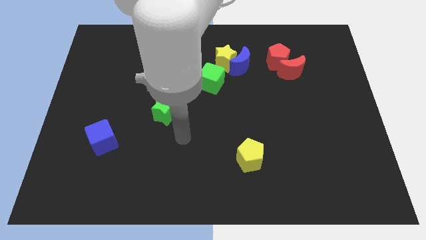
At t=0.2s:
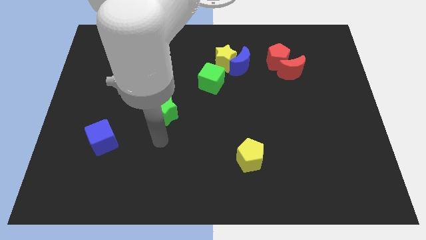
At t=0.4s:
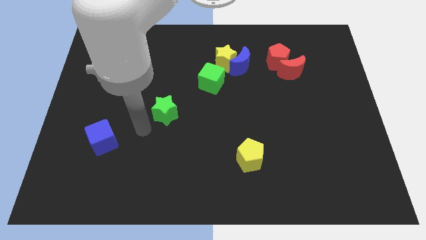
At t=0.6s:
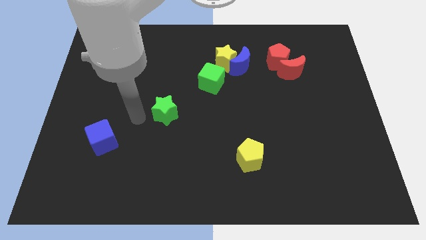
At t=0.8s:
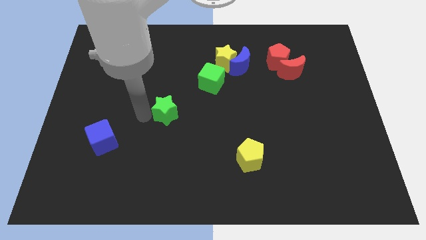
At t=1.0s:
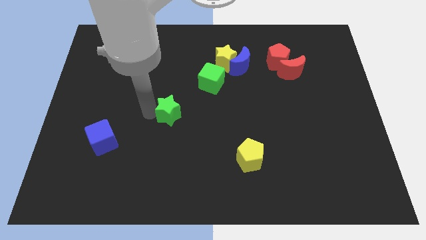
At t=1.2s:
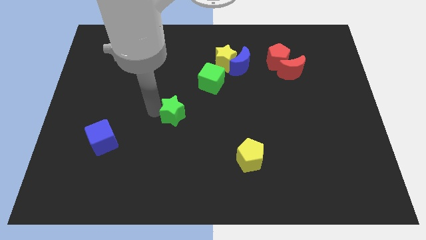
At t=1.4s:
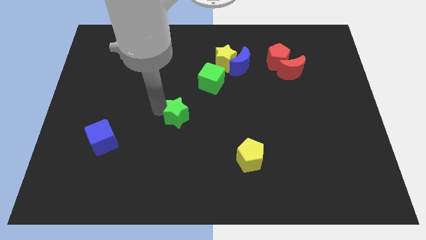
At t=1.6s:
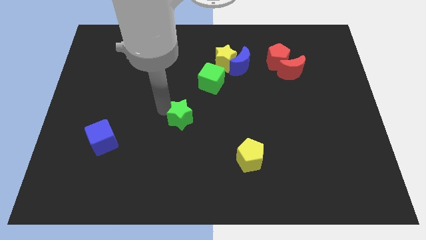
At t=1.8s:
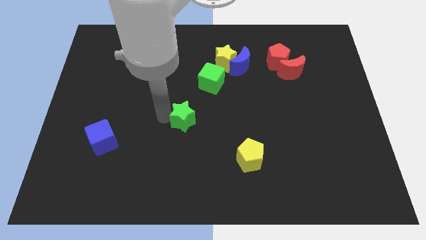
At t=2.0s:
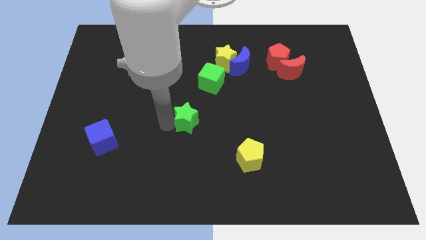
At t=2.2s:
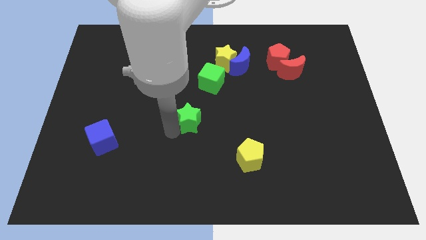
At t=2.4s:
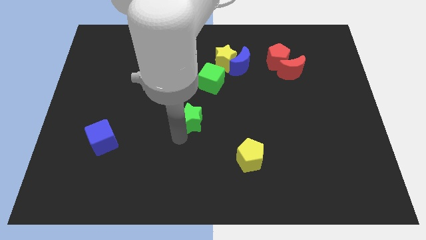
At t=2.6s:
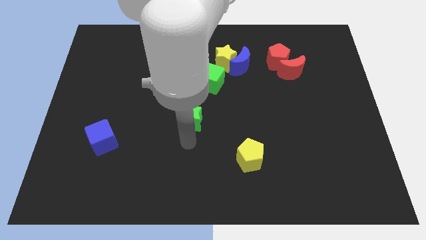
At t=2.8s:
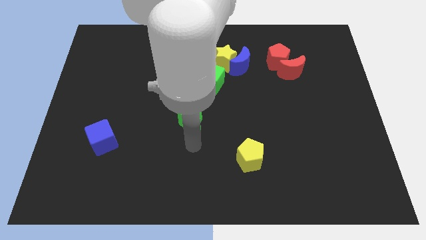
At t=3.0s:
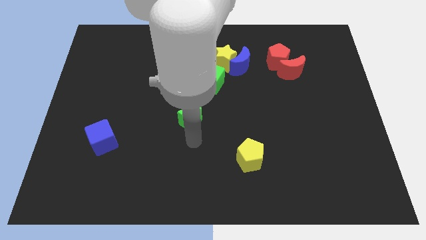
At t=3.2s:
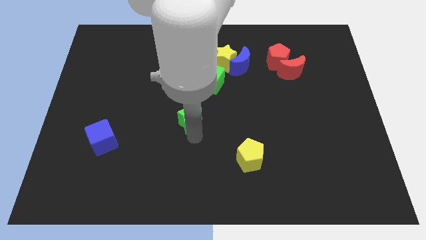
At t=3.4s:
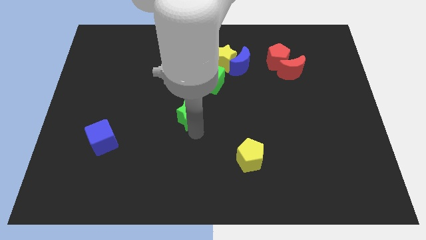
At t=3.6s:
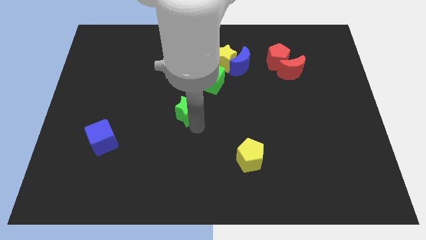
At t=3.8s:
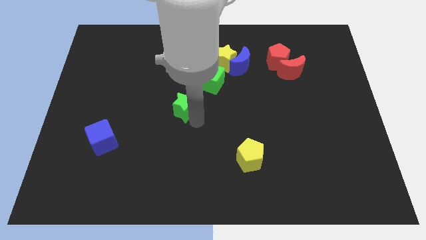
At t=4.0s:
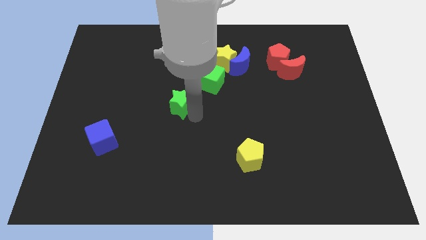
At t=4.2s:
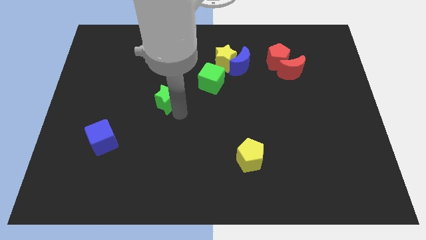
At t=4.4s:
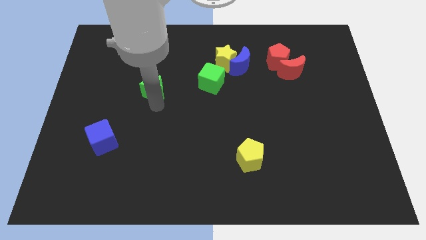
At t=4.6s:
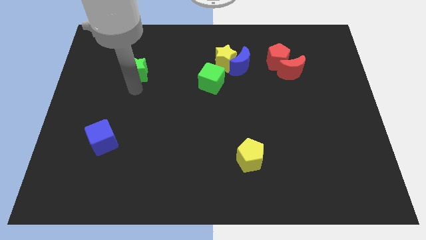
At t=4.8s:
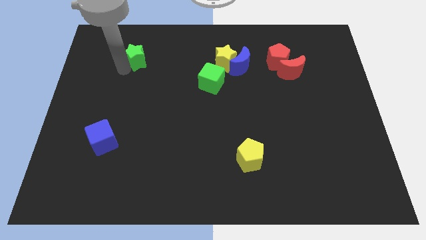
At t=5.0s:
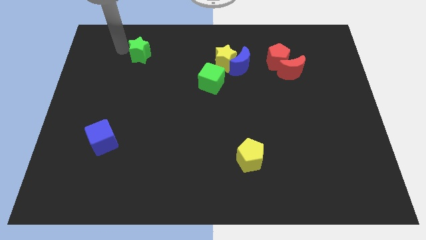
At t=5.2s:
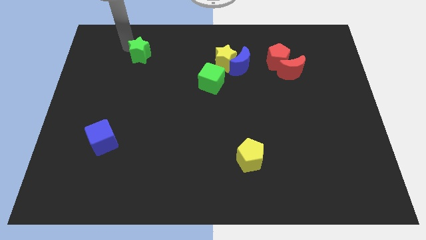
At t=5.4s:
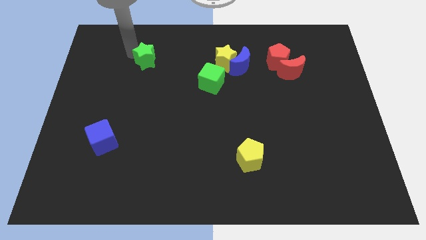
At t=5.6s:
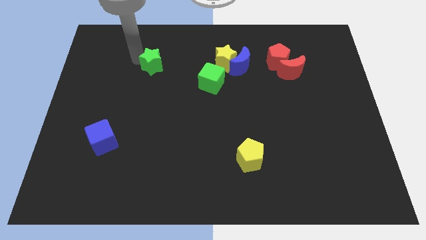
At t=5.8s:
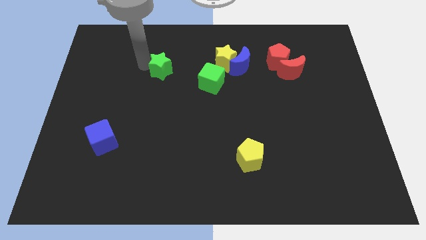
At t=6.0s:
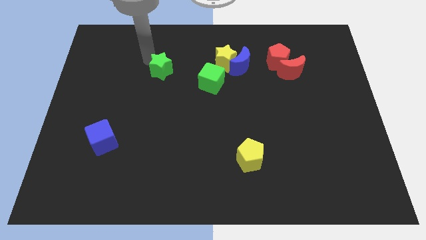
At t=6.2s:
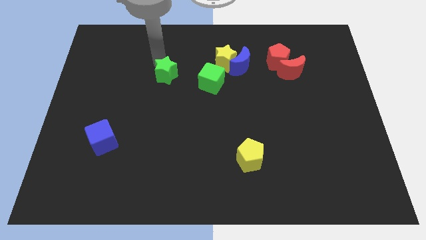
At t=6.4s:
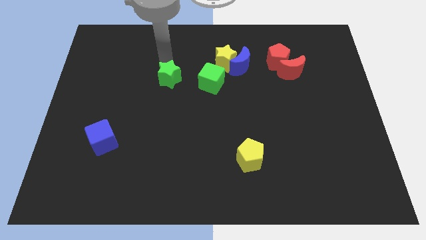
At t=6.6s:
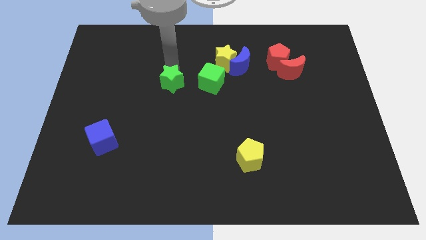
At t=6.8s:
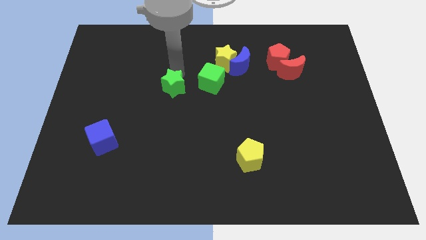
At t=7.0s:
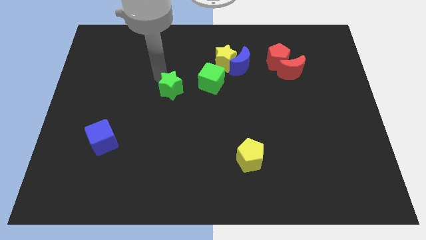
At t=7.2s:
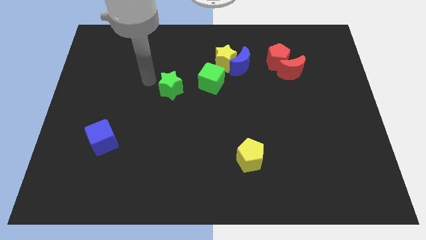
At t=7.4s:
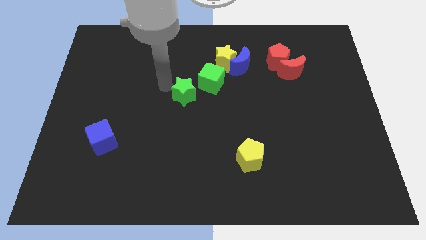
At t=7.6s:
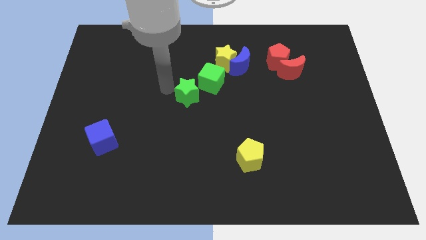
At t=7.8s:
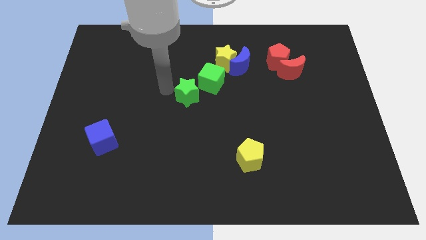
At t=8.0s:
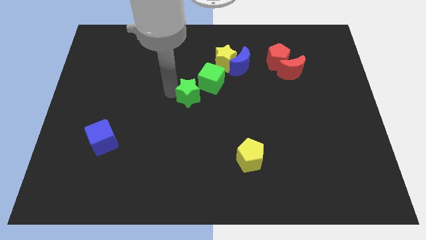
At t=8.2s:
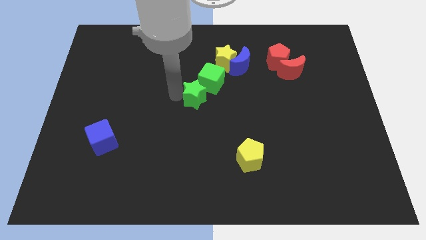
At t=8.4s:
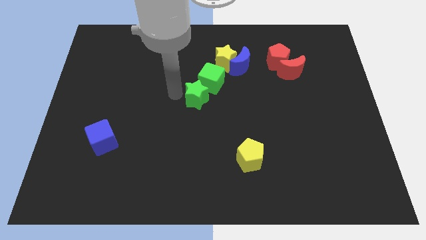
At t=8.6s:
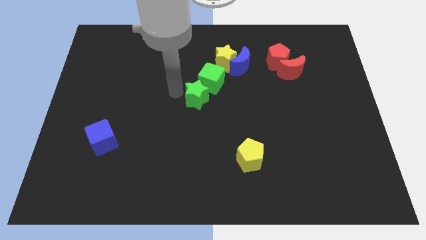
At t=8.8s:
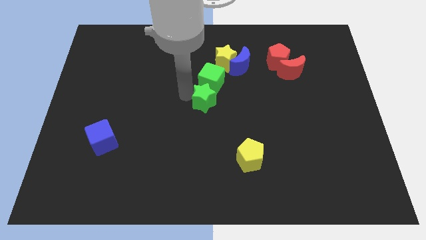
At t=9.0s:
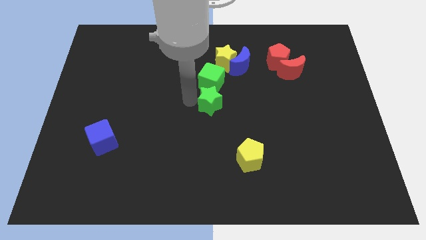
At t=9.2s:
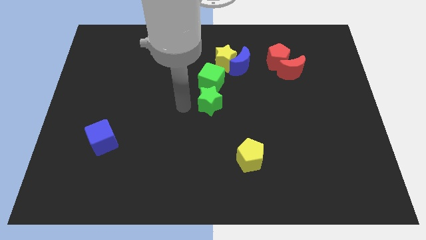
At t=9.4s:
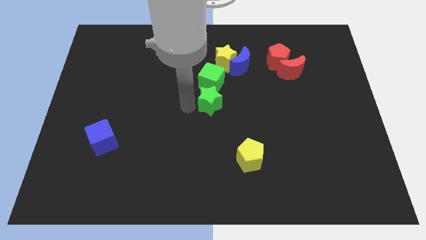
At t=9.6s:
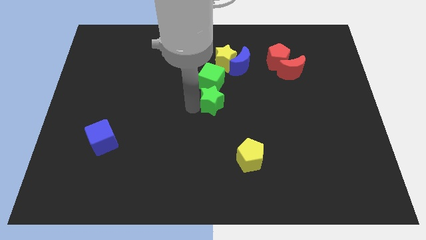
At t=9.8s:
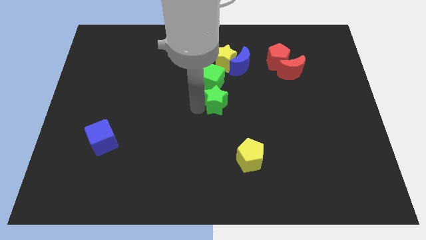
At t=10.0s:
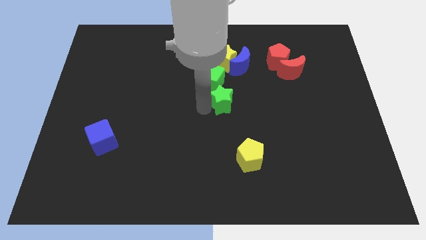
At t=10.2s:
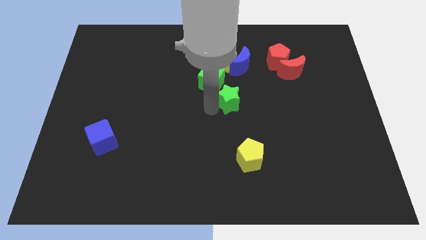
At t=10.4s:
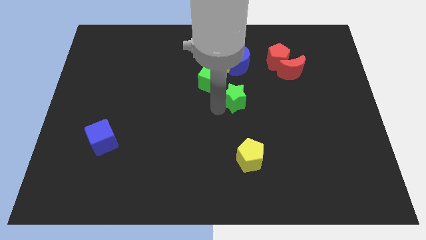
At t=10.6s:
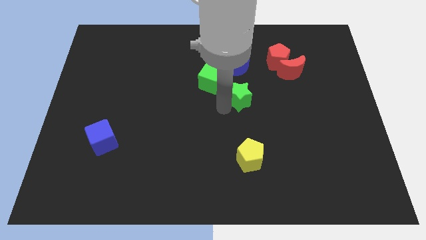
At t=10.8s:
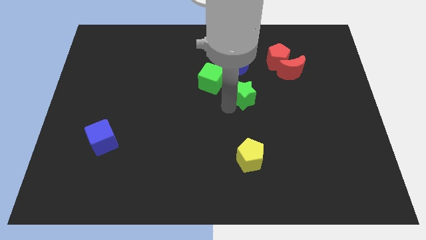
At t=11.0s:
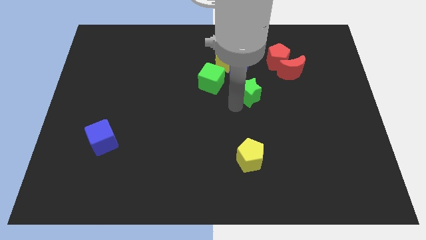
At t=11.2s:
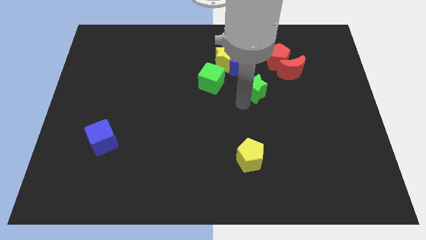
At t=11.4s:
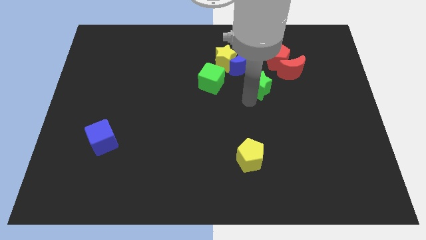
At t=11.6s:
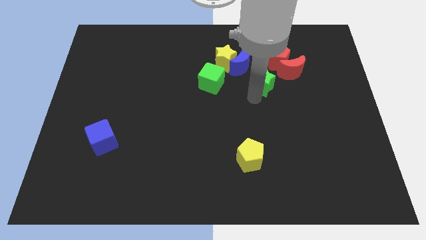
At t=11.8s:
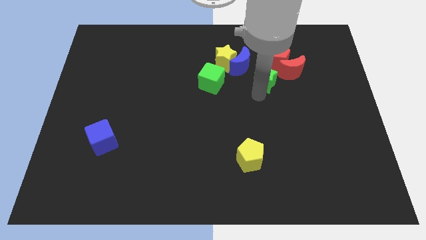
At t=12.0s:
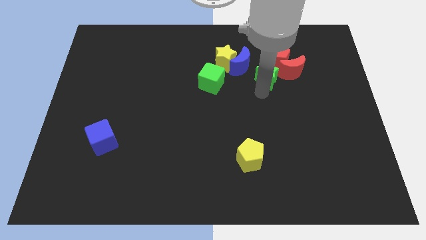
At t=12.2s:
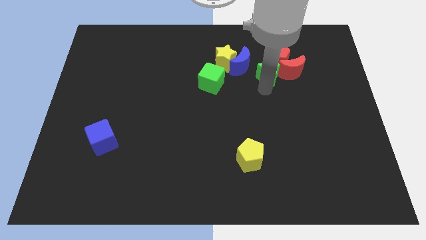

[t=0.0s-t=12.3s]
put the green star to the red pentagon

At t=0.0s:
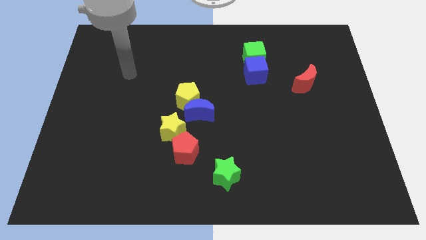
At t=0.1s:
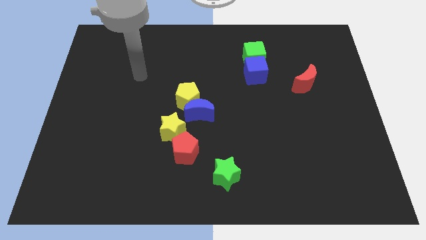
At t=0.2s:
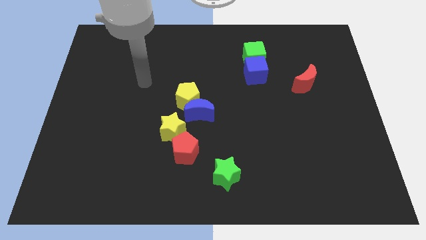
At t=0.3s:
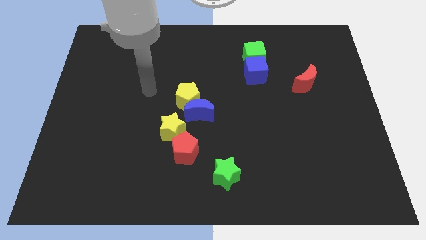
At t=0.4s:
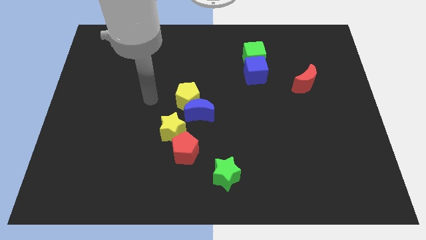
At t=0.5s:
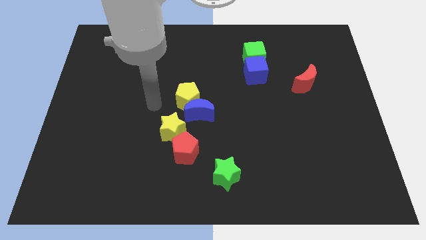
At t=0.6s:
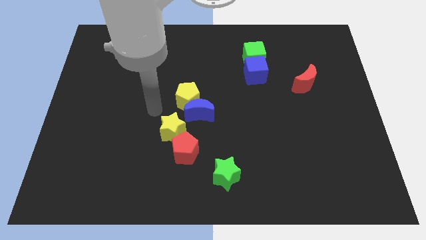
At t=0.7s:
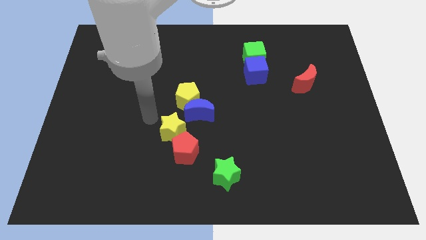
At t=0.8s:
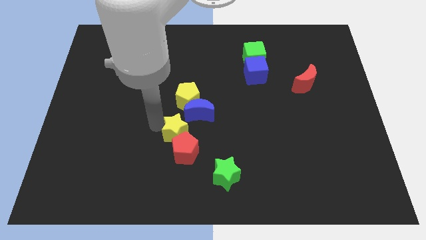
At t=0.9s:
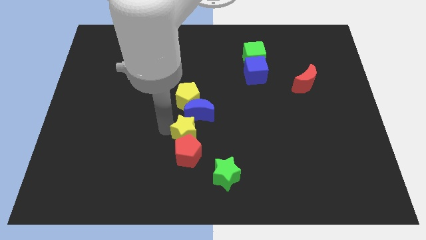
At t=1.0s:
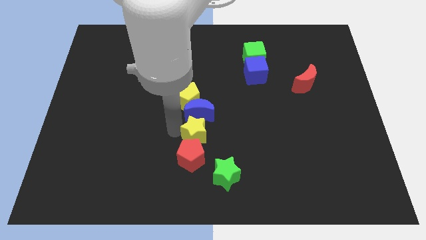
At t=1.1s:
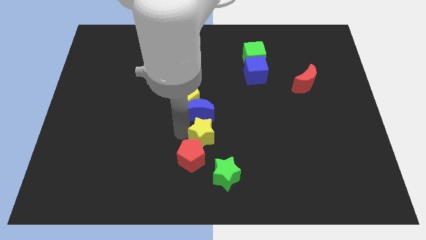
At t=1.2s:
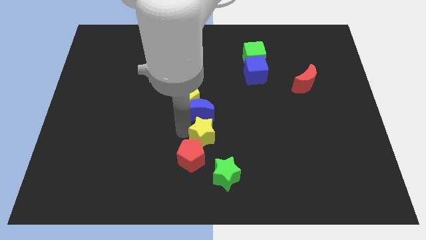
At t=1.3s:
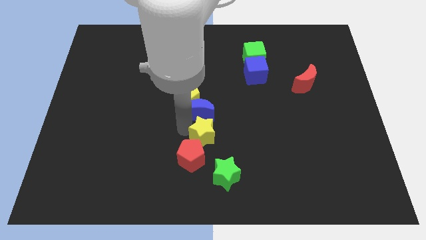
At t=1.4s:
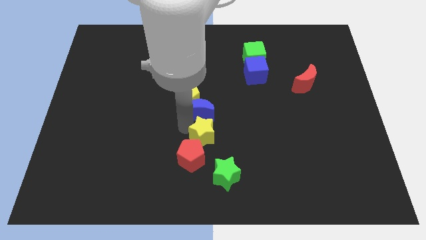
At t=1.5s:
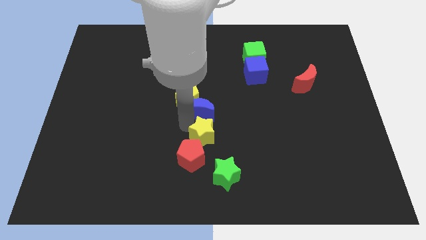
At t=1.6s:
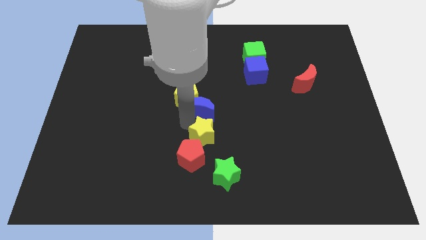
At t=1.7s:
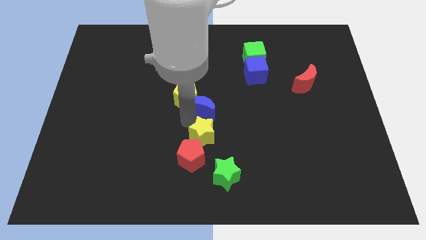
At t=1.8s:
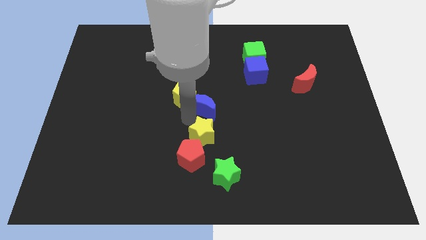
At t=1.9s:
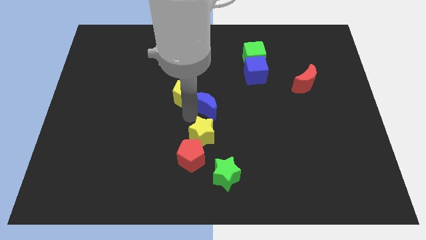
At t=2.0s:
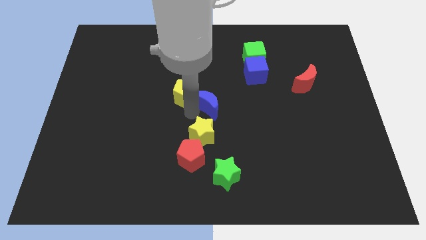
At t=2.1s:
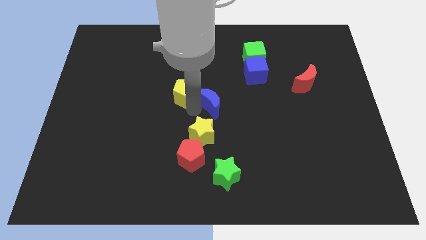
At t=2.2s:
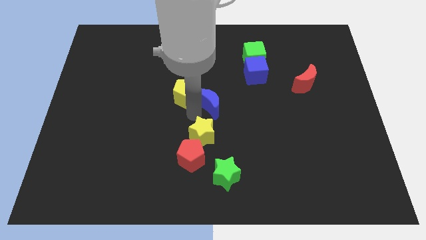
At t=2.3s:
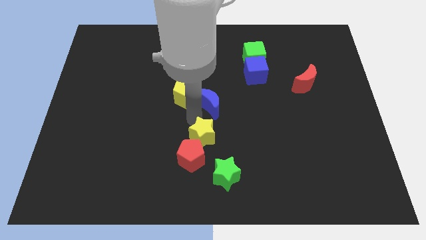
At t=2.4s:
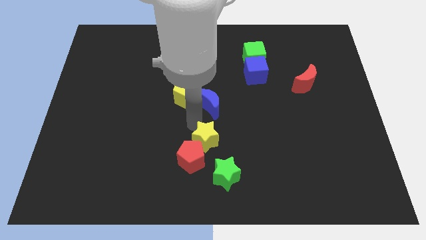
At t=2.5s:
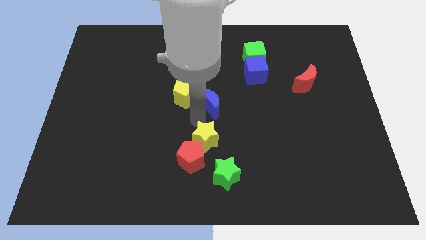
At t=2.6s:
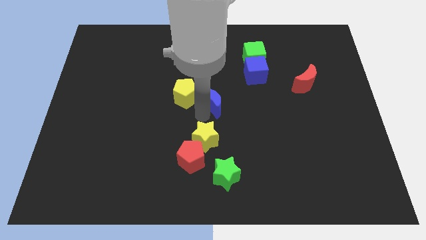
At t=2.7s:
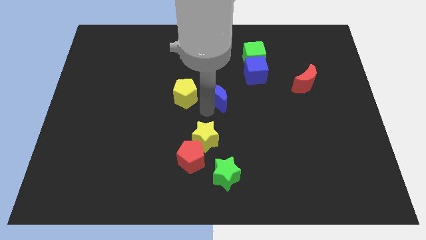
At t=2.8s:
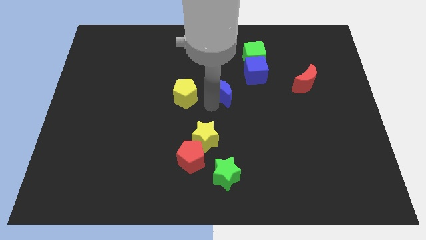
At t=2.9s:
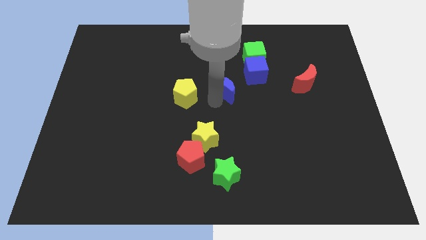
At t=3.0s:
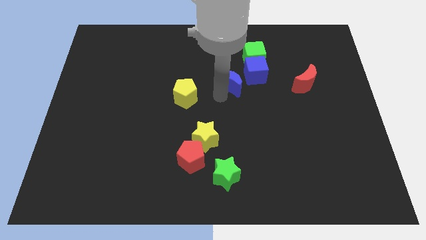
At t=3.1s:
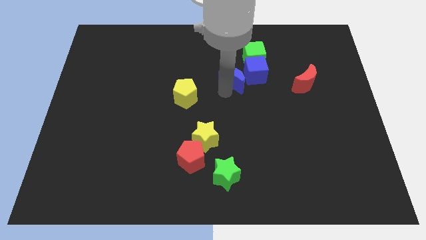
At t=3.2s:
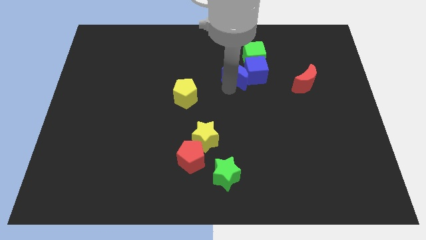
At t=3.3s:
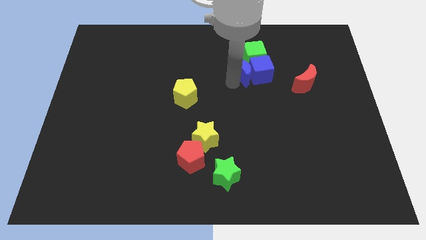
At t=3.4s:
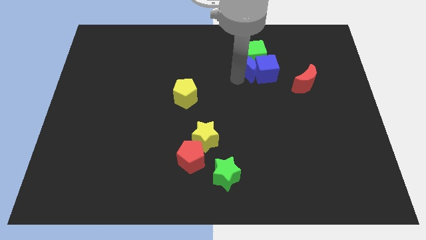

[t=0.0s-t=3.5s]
move the blue moon close to the green cube
